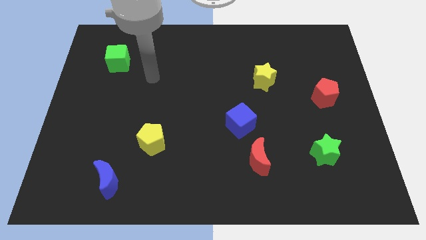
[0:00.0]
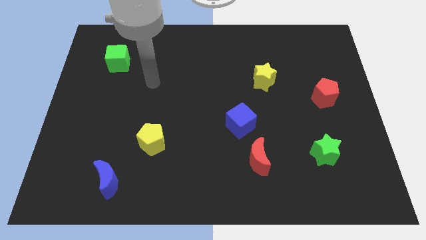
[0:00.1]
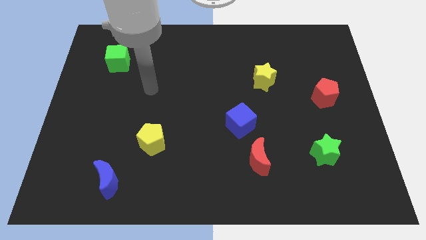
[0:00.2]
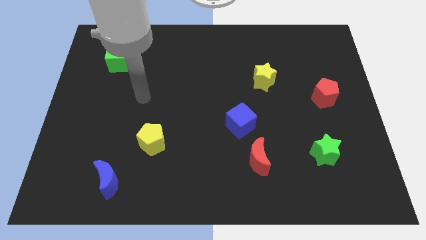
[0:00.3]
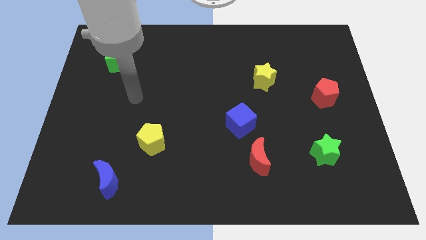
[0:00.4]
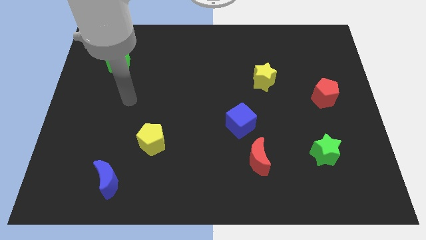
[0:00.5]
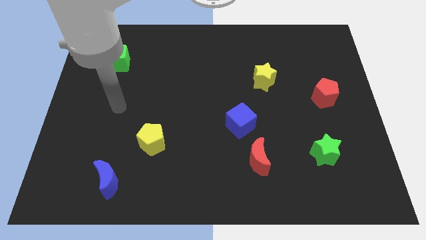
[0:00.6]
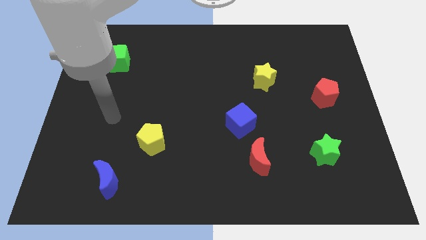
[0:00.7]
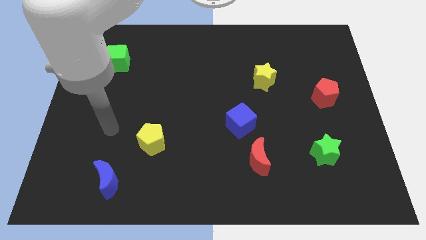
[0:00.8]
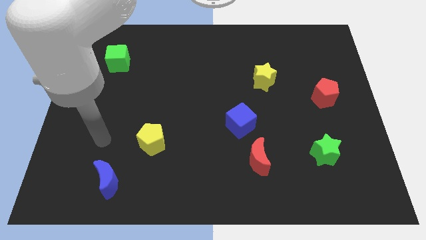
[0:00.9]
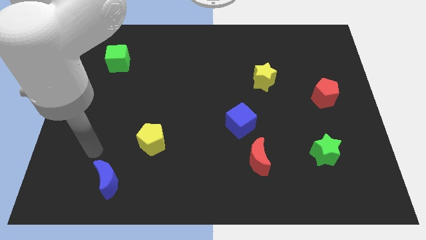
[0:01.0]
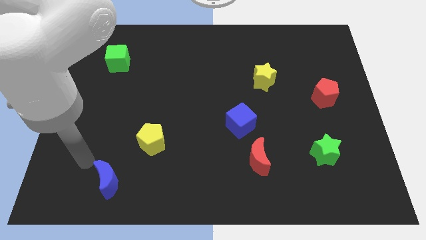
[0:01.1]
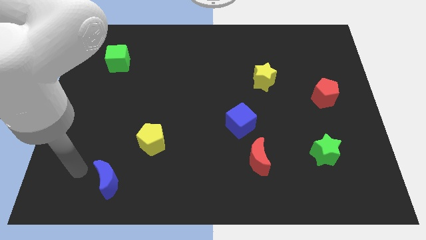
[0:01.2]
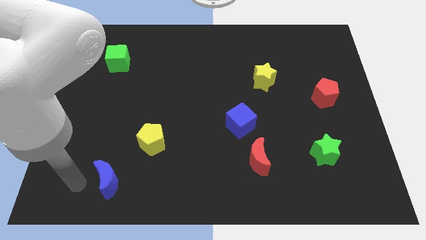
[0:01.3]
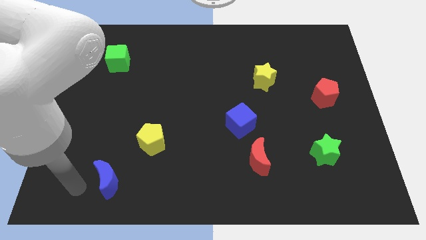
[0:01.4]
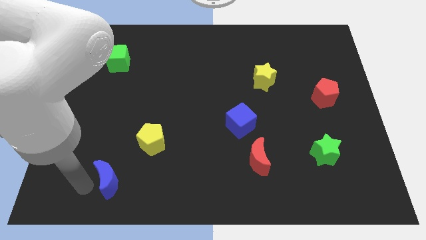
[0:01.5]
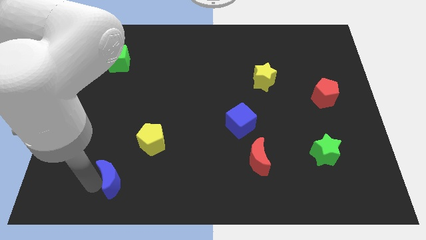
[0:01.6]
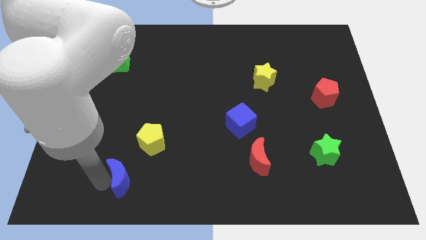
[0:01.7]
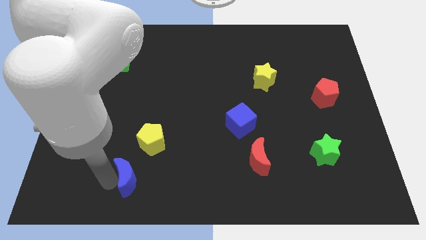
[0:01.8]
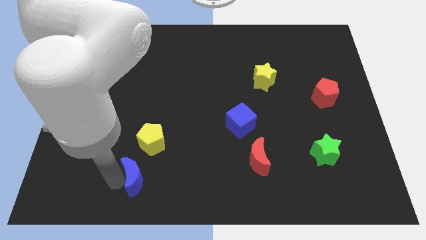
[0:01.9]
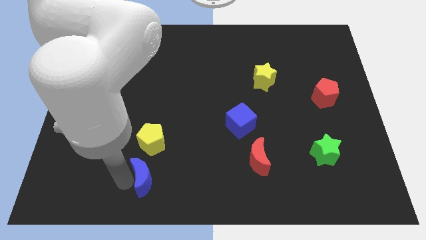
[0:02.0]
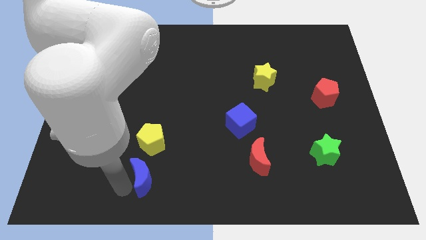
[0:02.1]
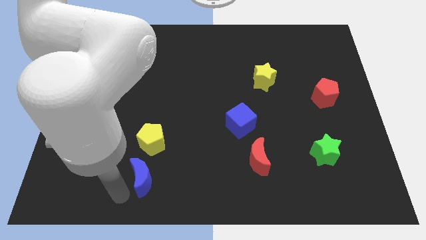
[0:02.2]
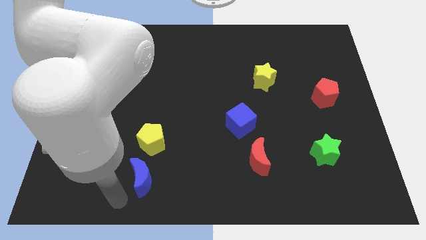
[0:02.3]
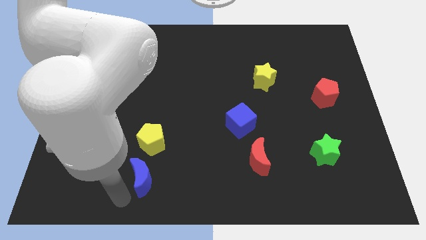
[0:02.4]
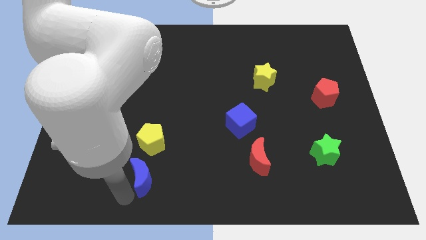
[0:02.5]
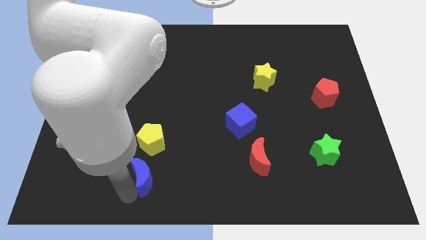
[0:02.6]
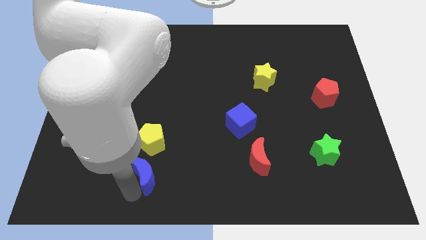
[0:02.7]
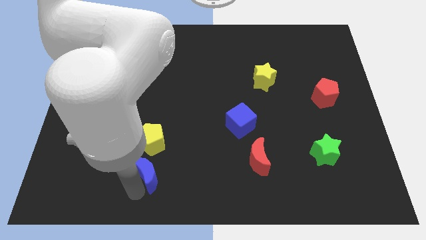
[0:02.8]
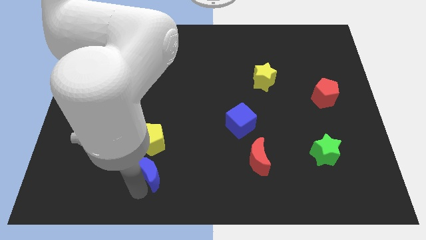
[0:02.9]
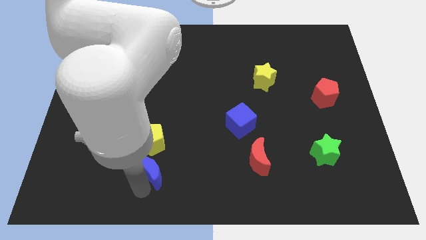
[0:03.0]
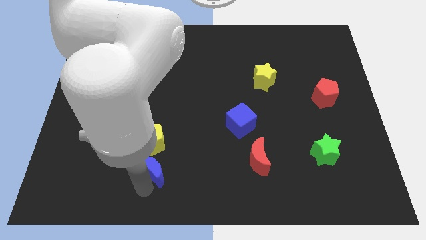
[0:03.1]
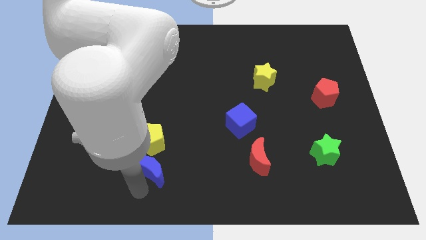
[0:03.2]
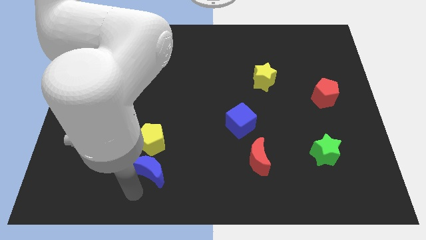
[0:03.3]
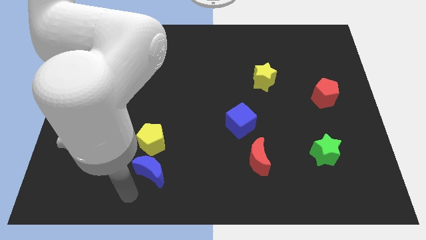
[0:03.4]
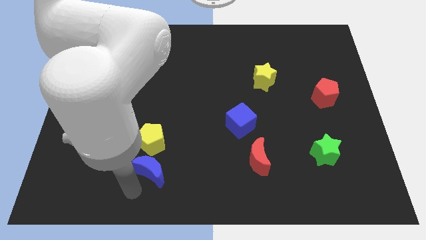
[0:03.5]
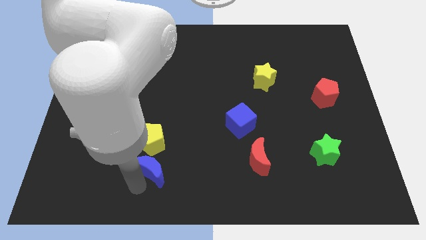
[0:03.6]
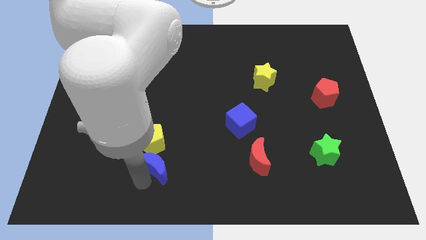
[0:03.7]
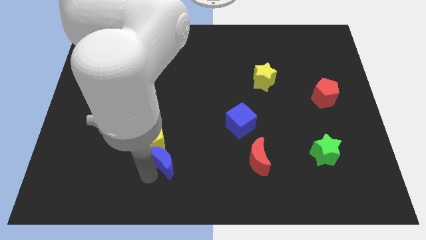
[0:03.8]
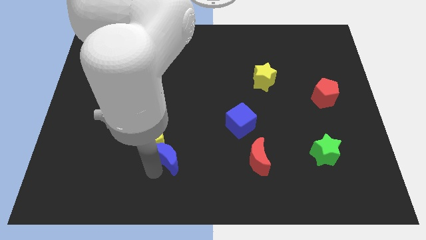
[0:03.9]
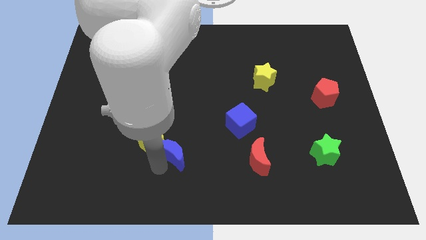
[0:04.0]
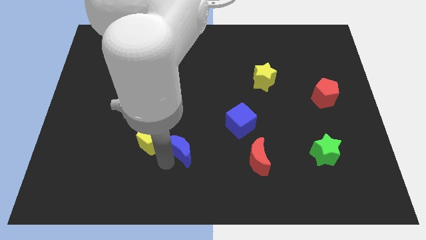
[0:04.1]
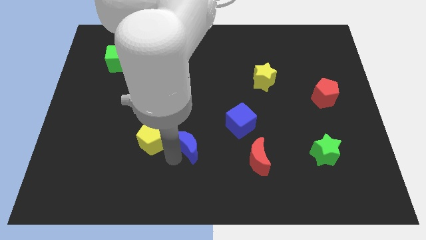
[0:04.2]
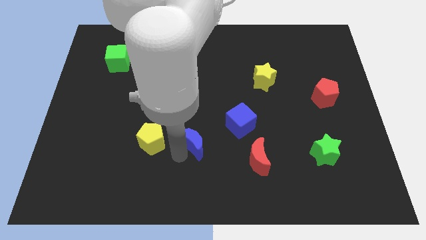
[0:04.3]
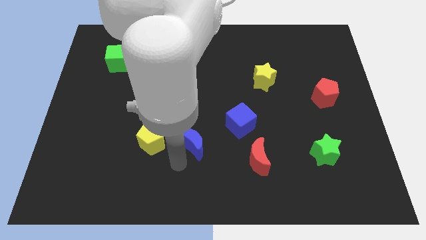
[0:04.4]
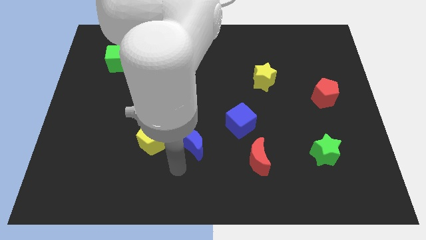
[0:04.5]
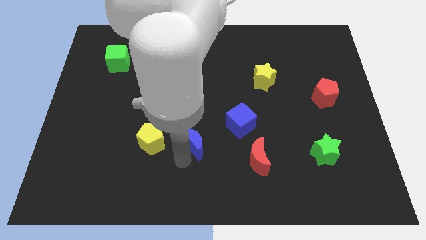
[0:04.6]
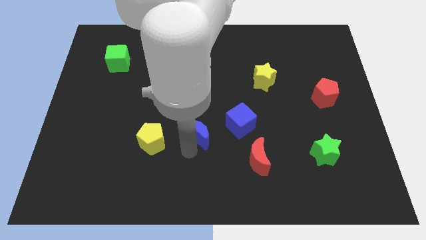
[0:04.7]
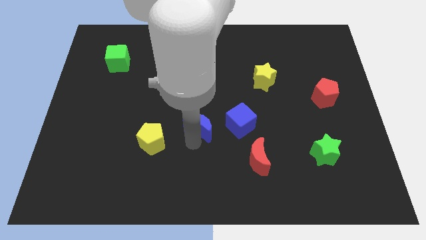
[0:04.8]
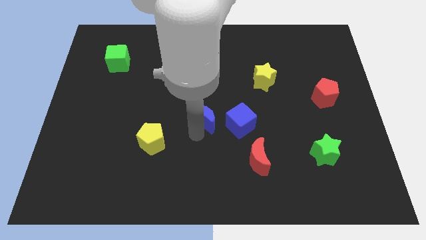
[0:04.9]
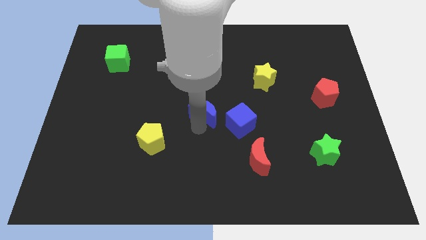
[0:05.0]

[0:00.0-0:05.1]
move the blue moon to the top left side of the blue cube

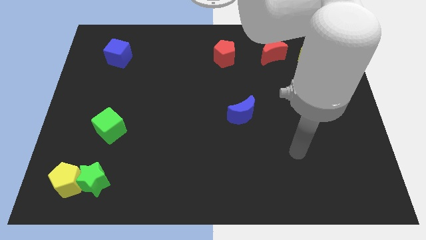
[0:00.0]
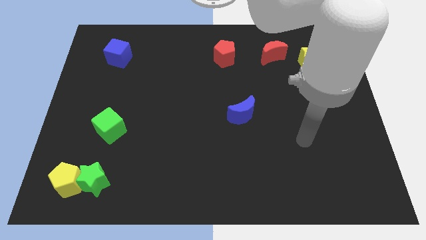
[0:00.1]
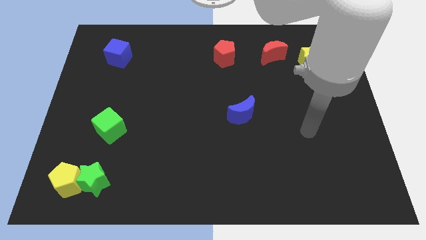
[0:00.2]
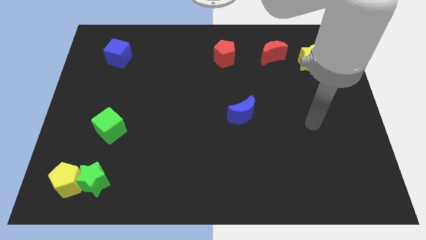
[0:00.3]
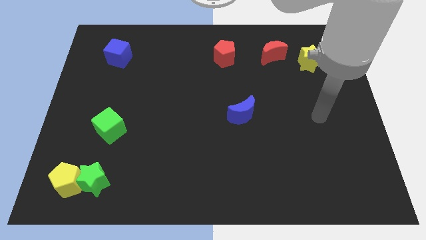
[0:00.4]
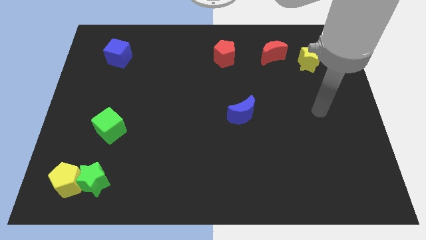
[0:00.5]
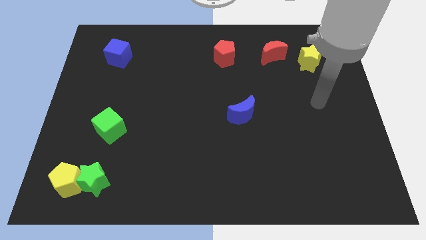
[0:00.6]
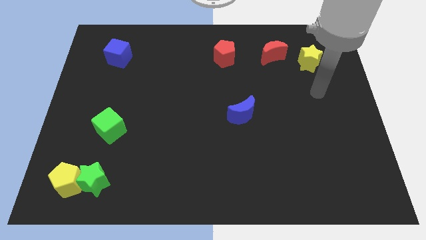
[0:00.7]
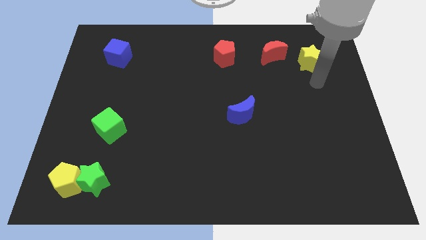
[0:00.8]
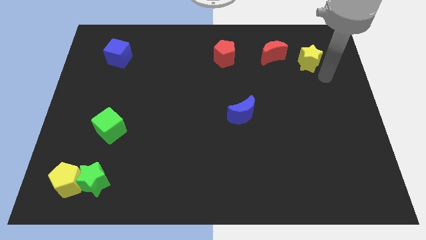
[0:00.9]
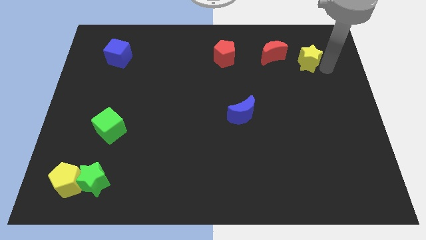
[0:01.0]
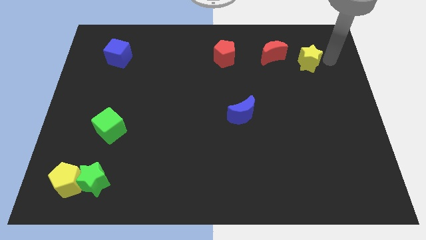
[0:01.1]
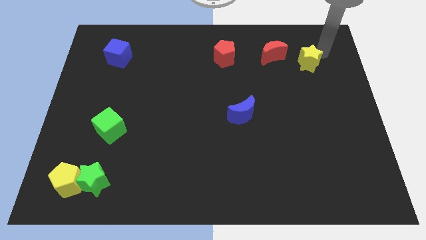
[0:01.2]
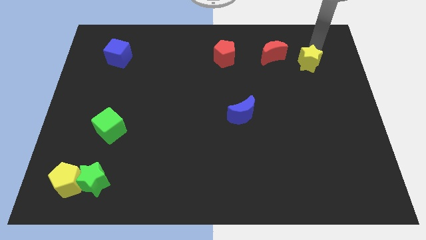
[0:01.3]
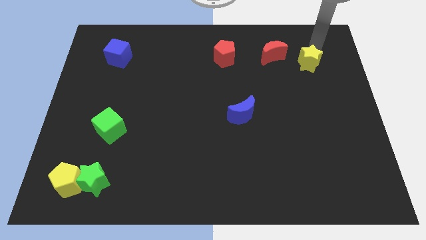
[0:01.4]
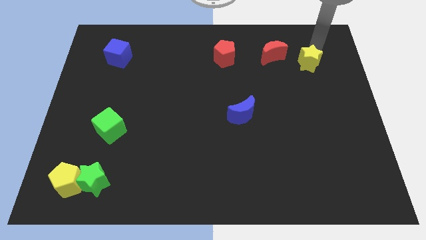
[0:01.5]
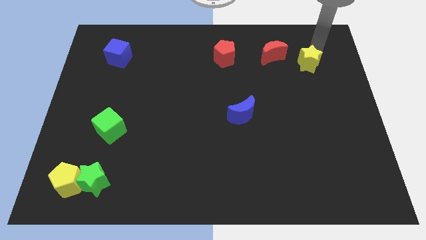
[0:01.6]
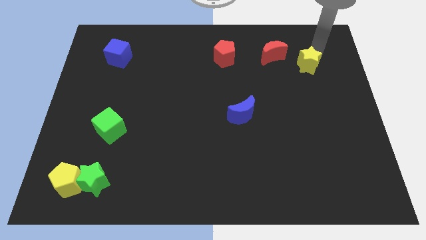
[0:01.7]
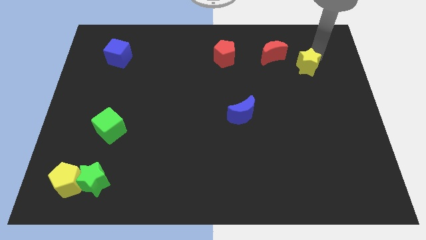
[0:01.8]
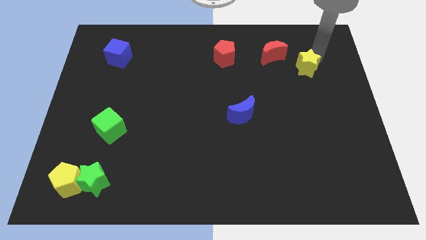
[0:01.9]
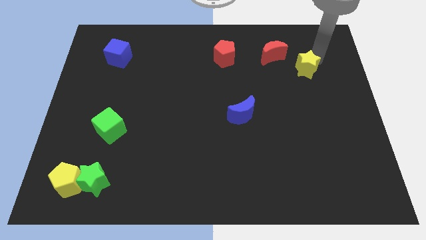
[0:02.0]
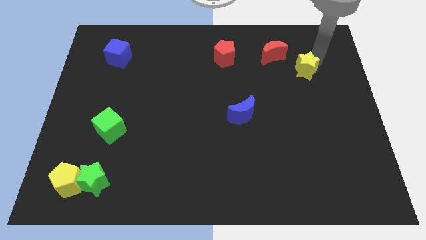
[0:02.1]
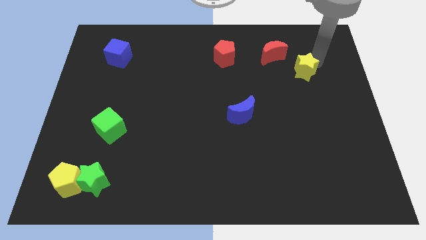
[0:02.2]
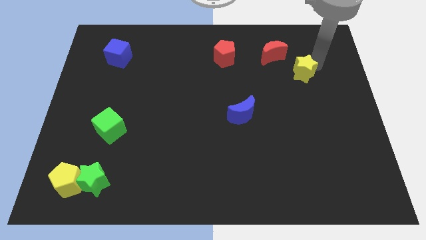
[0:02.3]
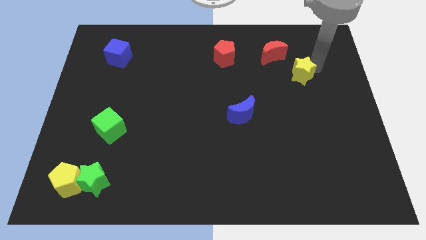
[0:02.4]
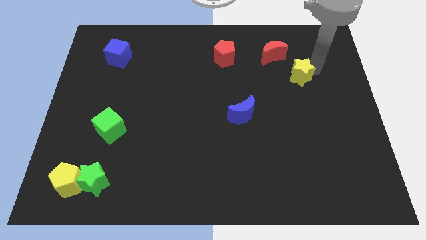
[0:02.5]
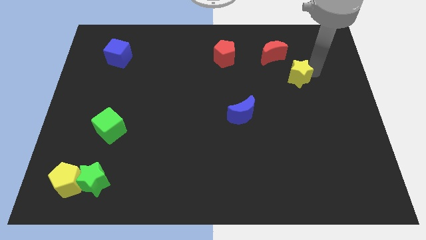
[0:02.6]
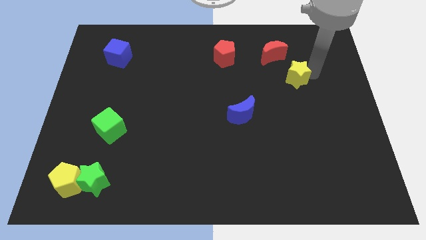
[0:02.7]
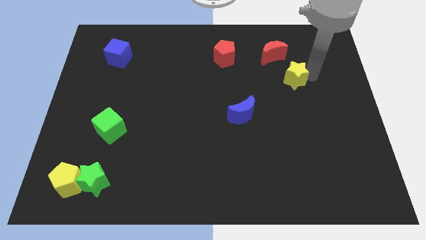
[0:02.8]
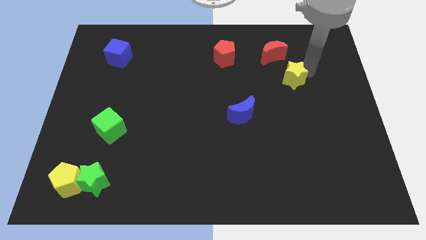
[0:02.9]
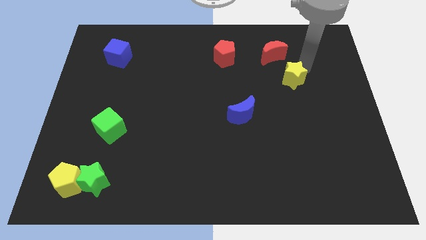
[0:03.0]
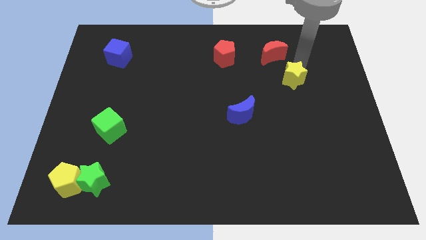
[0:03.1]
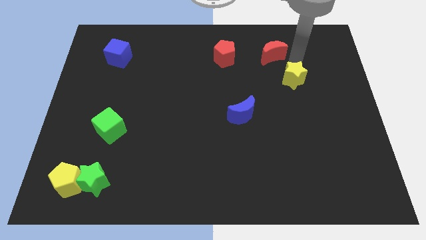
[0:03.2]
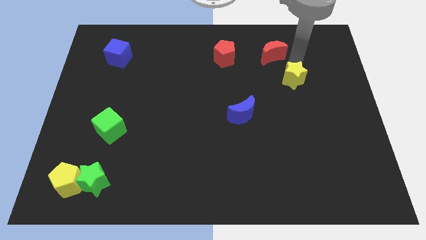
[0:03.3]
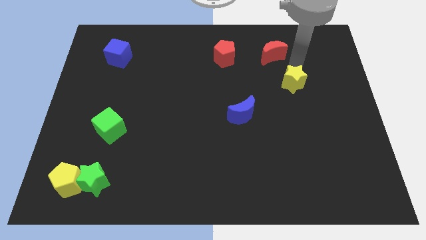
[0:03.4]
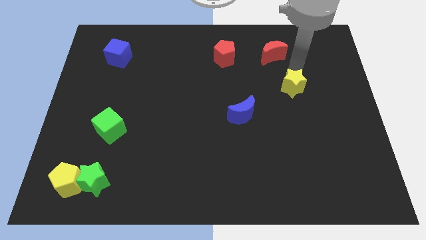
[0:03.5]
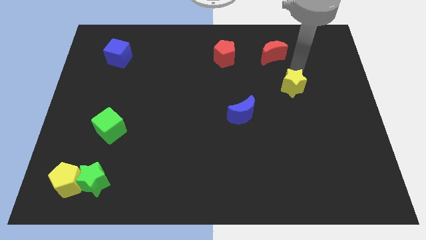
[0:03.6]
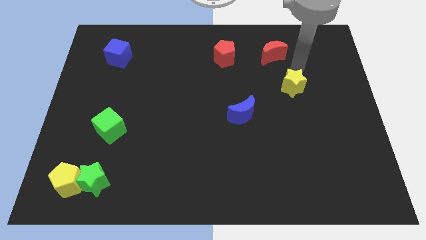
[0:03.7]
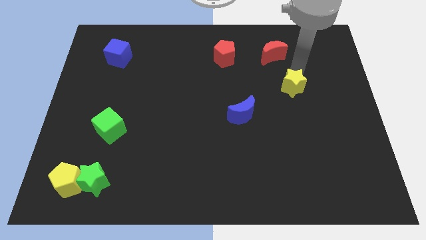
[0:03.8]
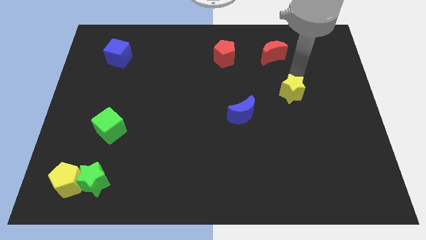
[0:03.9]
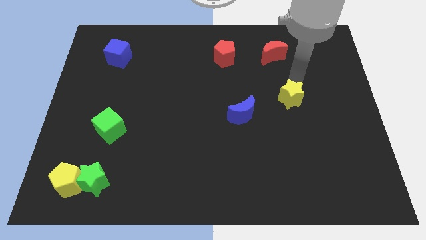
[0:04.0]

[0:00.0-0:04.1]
move the yellow star to the right side of the blue moon
